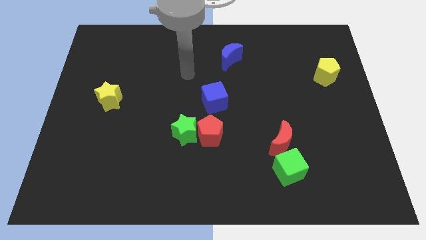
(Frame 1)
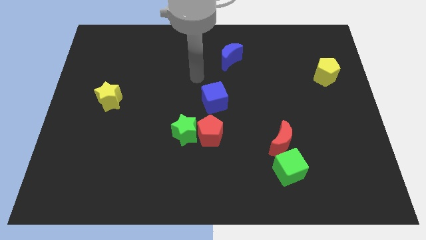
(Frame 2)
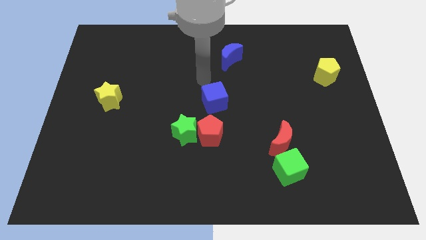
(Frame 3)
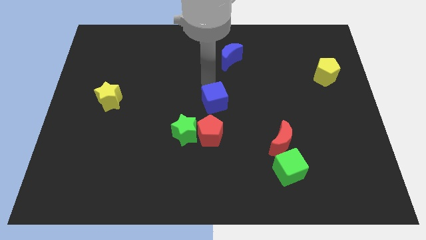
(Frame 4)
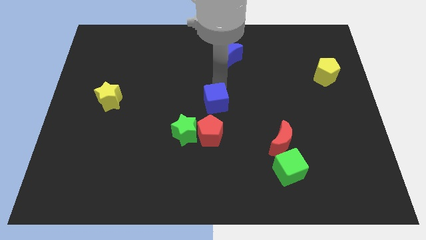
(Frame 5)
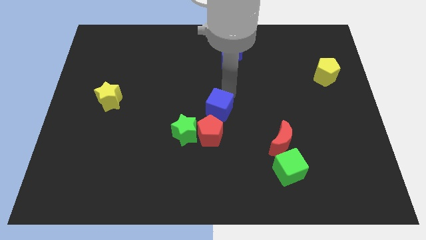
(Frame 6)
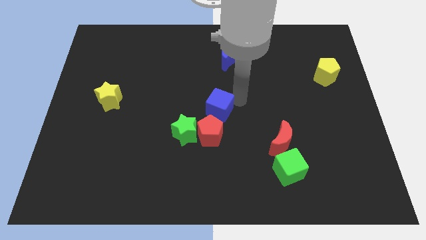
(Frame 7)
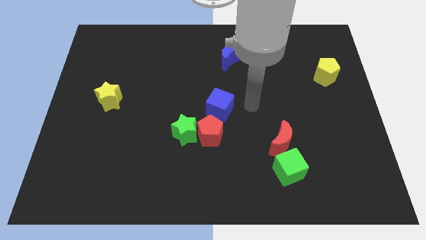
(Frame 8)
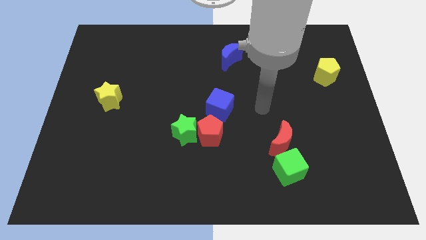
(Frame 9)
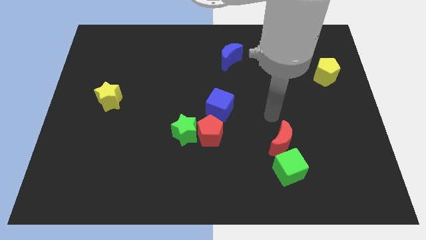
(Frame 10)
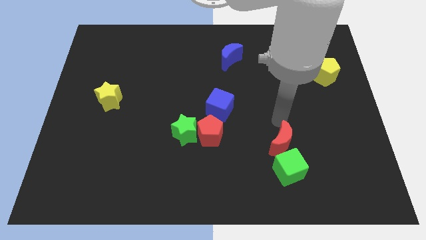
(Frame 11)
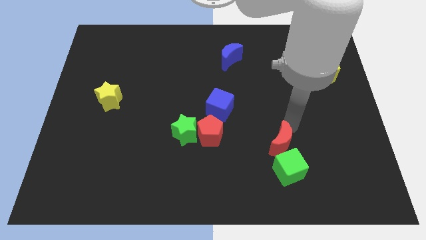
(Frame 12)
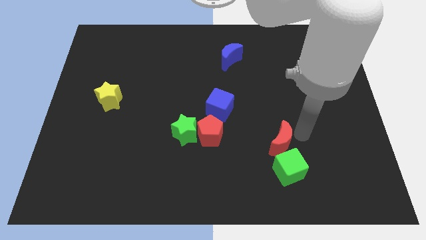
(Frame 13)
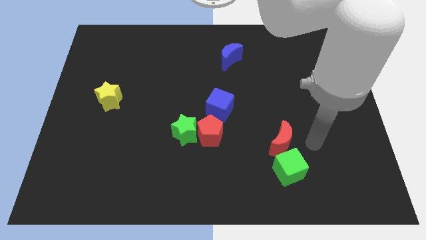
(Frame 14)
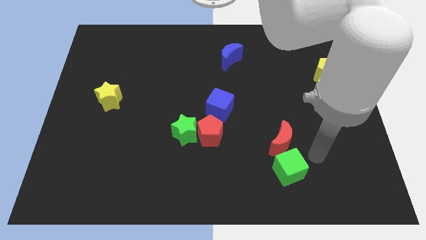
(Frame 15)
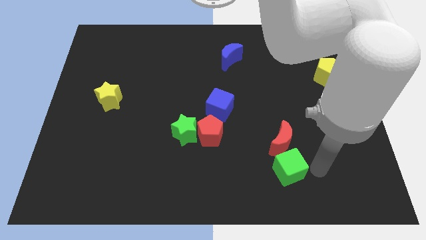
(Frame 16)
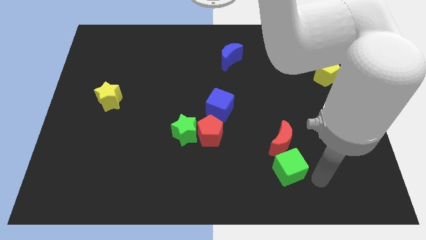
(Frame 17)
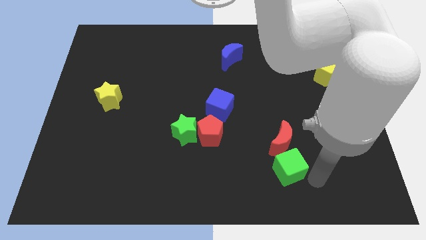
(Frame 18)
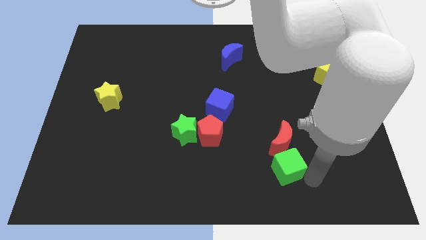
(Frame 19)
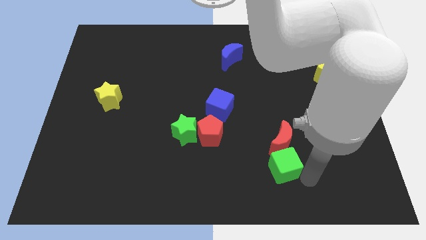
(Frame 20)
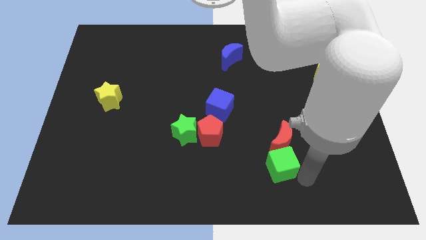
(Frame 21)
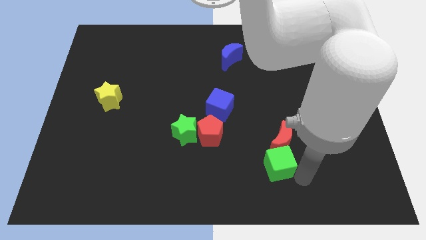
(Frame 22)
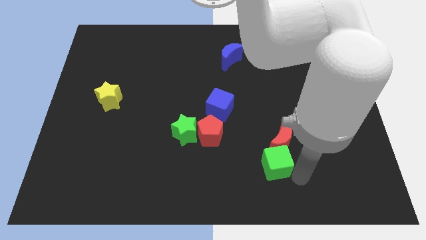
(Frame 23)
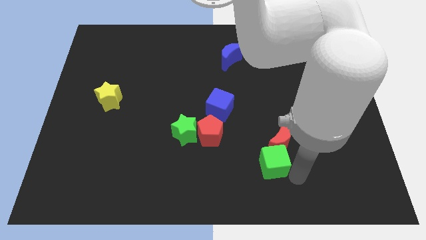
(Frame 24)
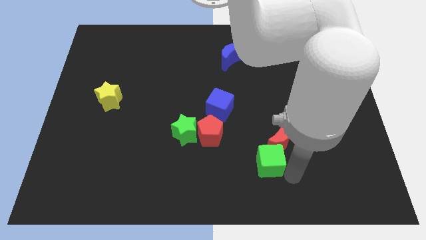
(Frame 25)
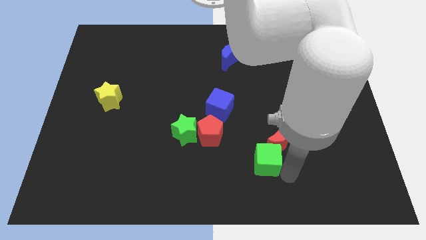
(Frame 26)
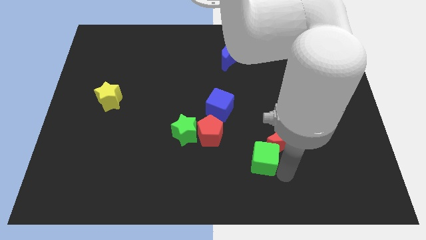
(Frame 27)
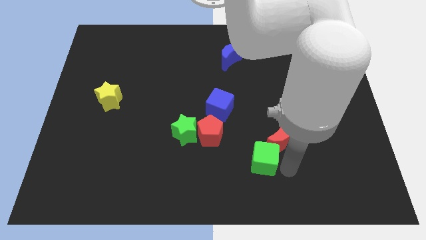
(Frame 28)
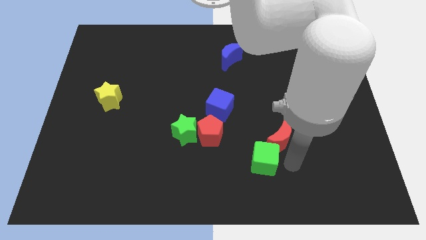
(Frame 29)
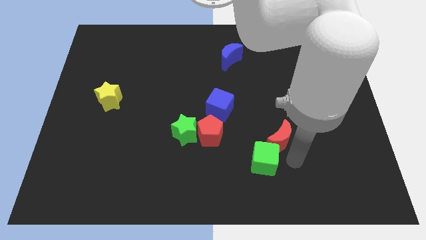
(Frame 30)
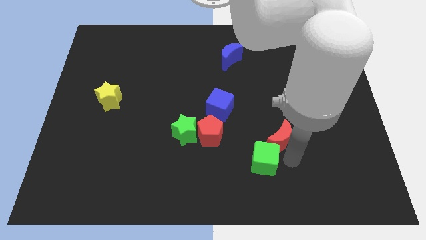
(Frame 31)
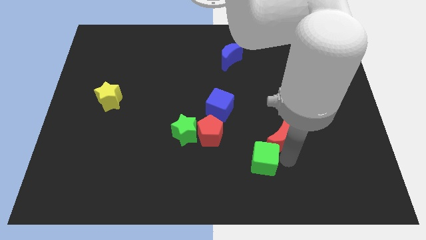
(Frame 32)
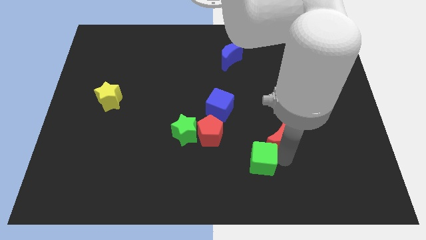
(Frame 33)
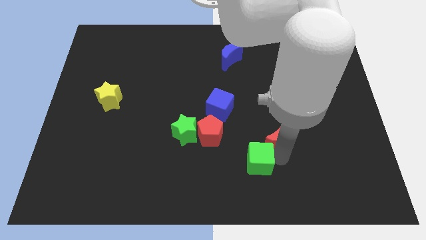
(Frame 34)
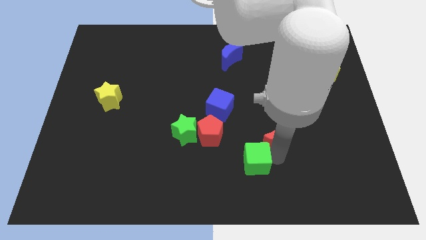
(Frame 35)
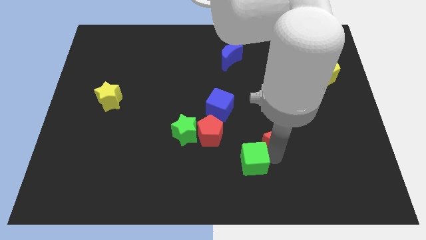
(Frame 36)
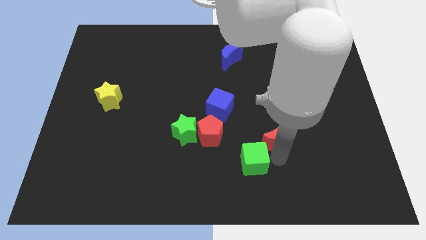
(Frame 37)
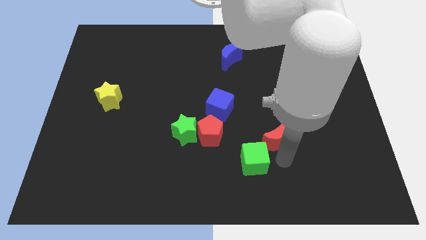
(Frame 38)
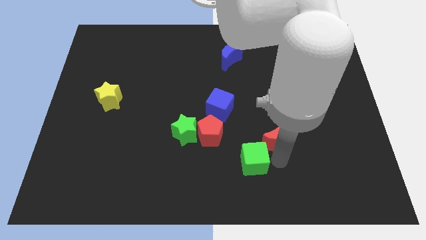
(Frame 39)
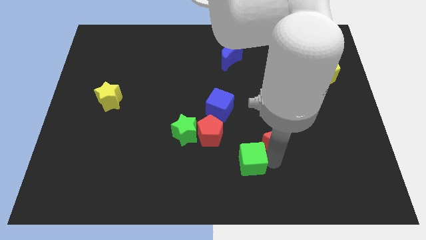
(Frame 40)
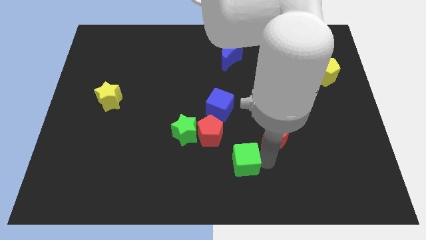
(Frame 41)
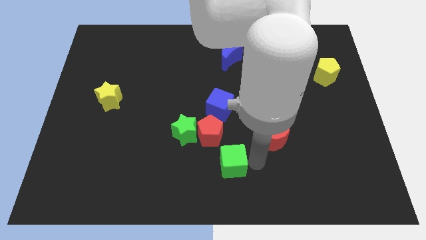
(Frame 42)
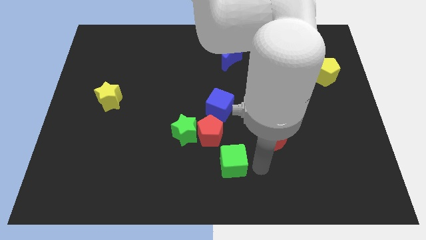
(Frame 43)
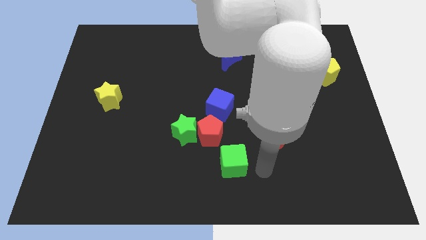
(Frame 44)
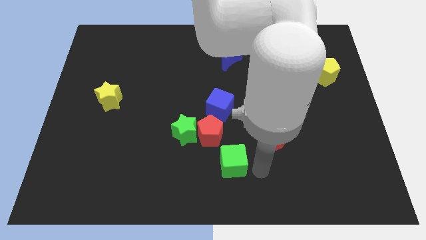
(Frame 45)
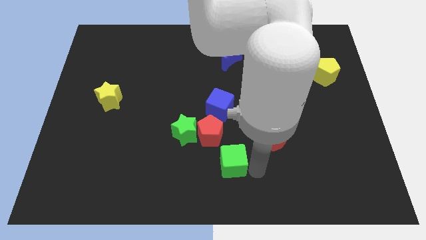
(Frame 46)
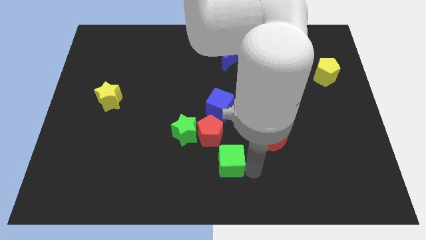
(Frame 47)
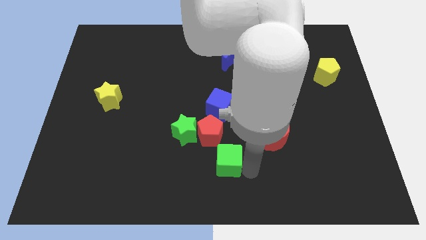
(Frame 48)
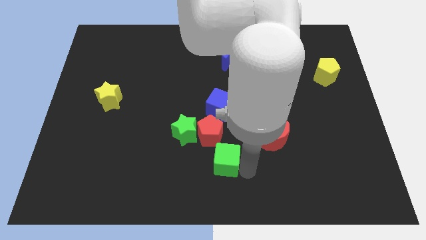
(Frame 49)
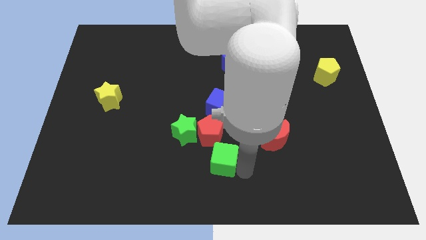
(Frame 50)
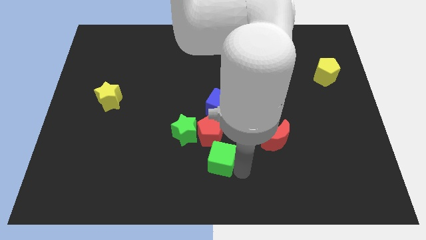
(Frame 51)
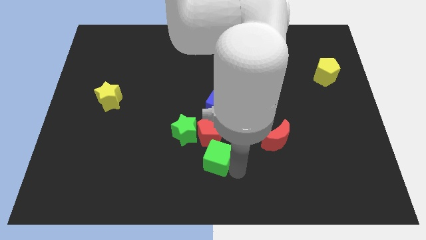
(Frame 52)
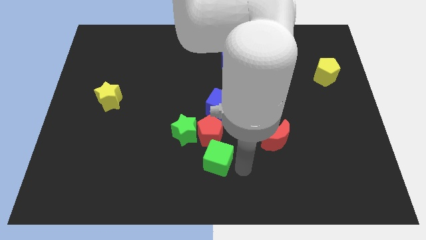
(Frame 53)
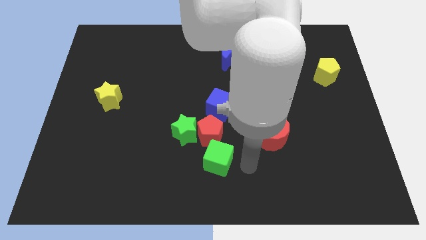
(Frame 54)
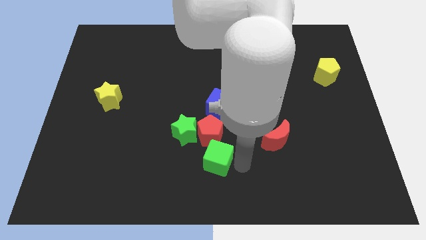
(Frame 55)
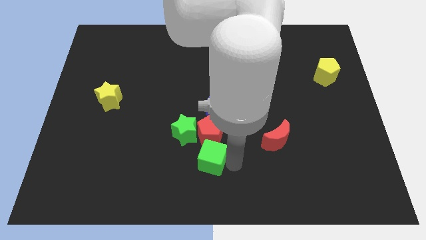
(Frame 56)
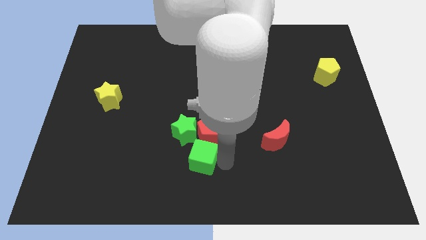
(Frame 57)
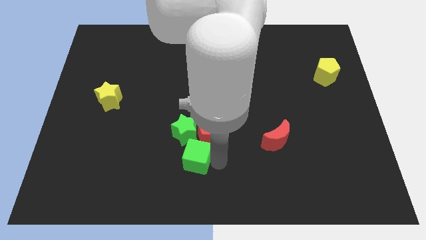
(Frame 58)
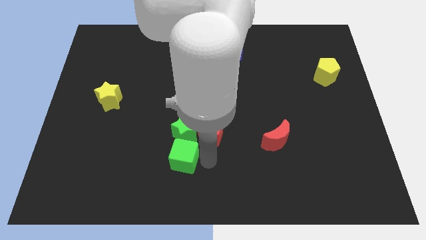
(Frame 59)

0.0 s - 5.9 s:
move the green cube to the bottom left side of the green star
